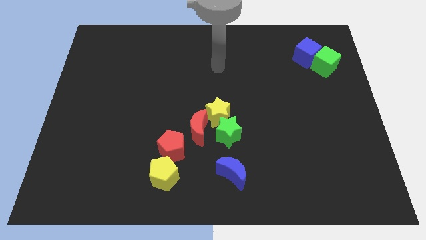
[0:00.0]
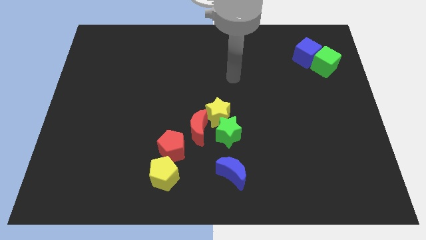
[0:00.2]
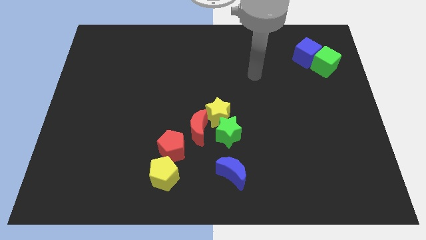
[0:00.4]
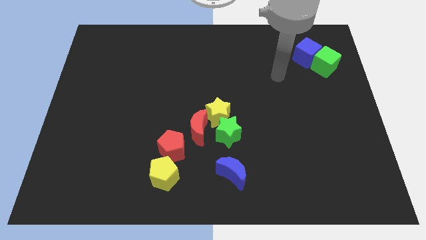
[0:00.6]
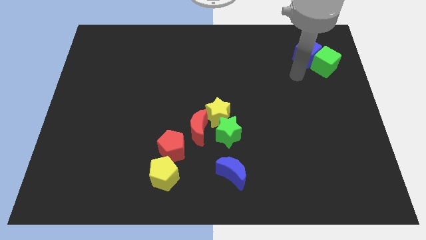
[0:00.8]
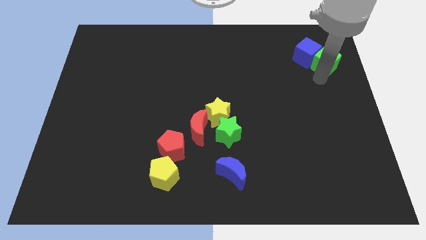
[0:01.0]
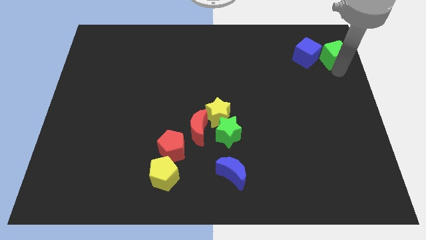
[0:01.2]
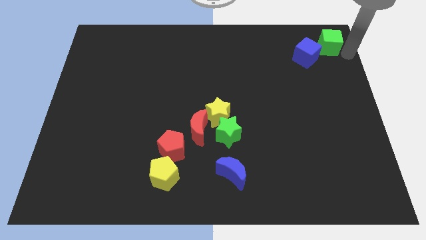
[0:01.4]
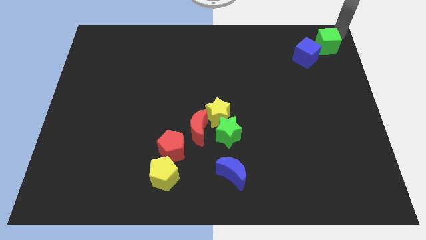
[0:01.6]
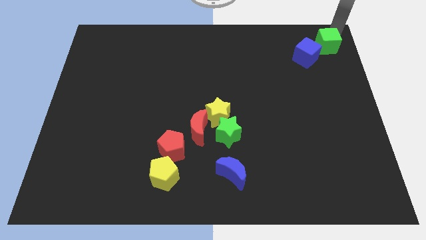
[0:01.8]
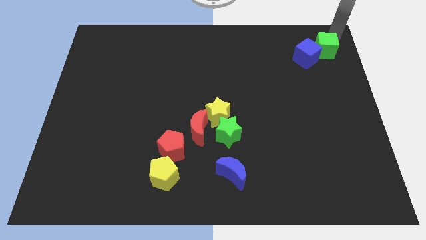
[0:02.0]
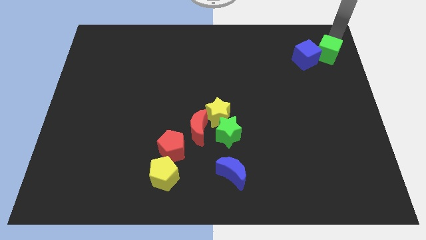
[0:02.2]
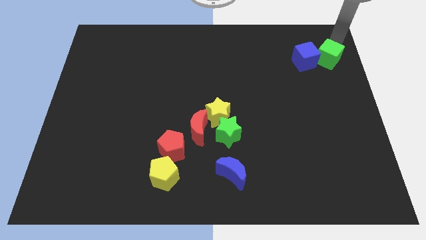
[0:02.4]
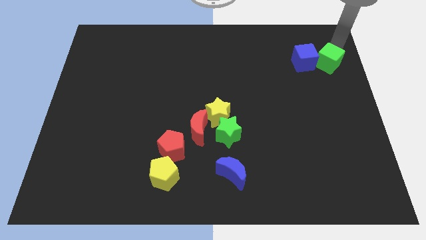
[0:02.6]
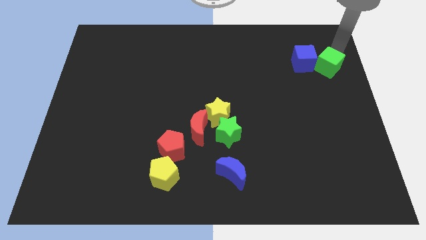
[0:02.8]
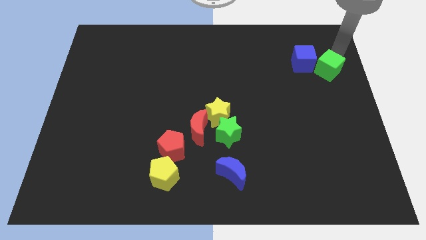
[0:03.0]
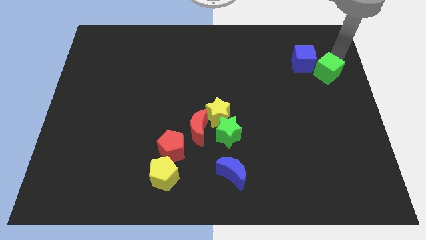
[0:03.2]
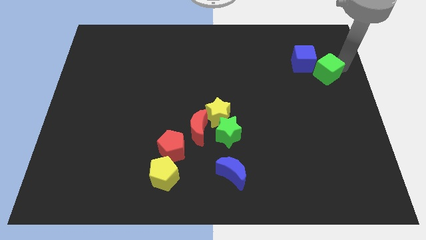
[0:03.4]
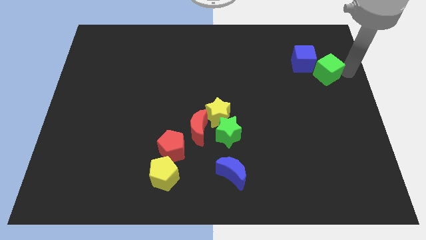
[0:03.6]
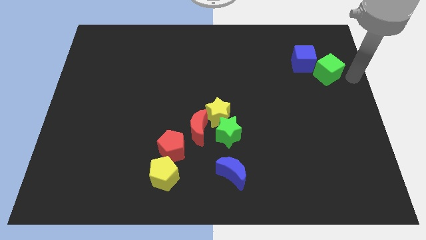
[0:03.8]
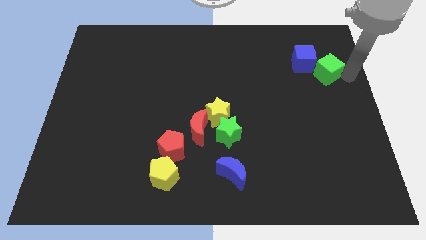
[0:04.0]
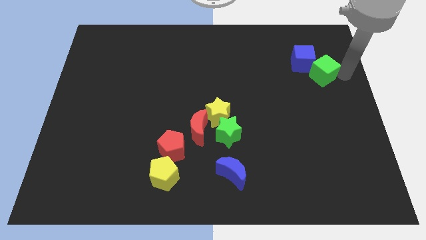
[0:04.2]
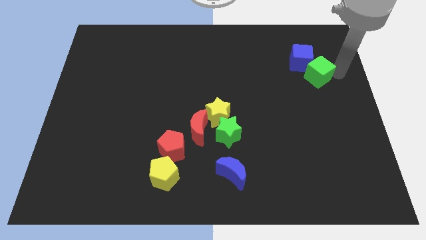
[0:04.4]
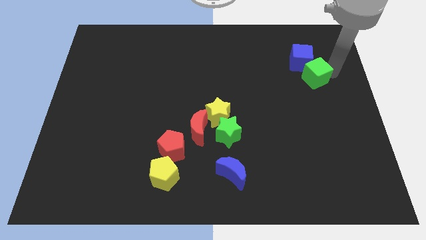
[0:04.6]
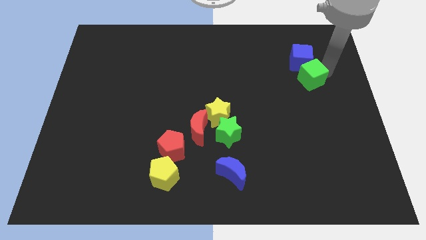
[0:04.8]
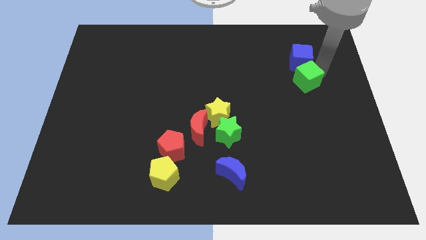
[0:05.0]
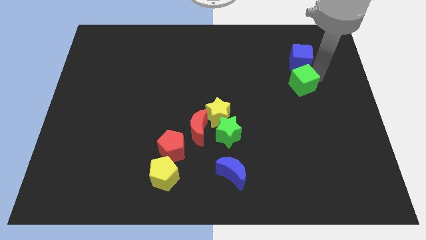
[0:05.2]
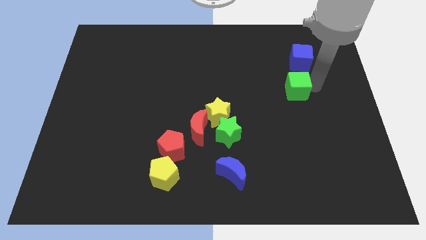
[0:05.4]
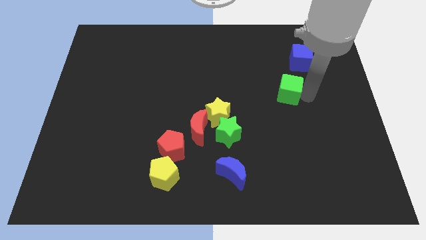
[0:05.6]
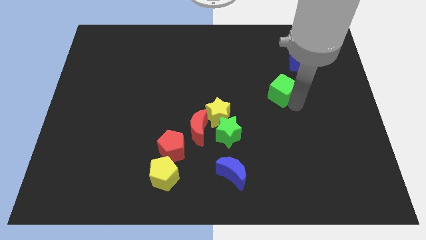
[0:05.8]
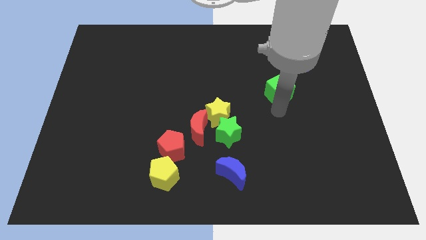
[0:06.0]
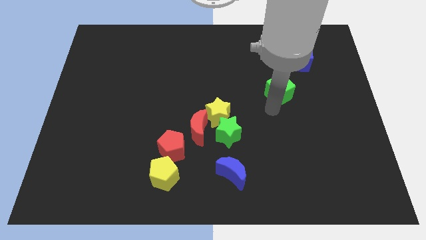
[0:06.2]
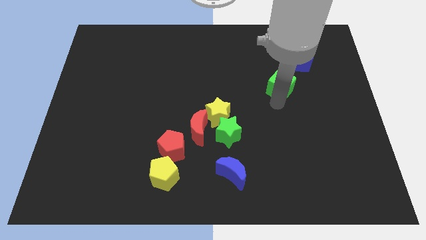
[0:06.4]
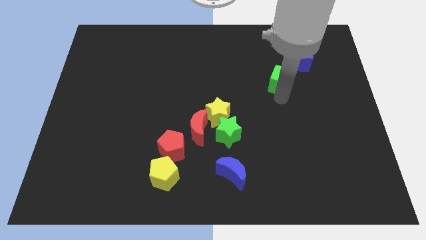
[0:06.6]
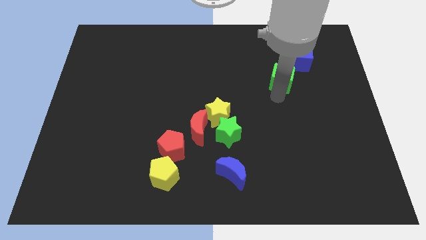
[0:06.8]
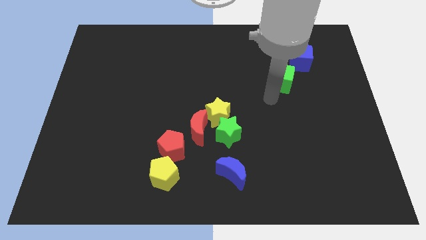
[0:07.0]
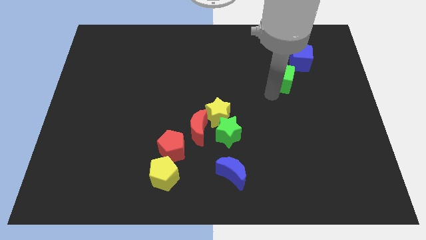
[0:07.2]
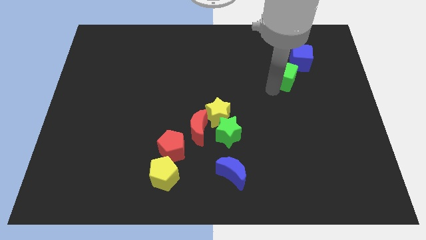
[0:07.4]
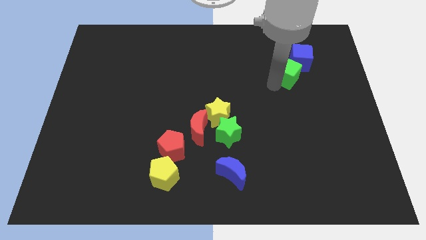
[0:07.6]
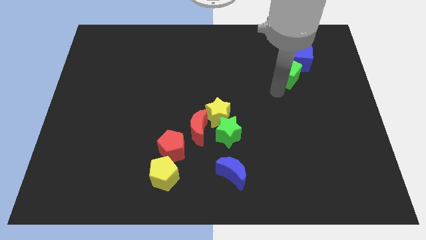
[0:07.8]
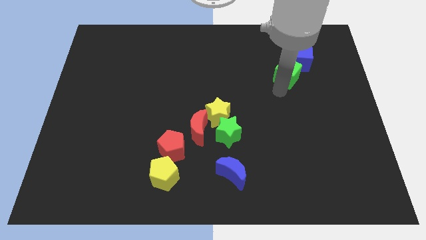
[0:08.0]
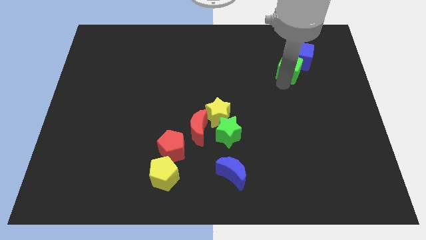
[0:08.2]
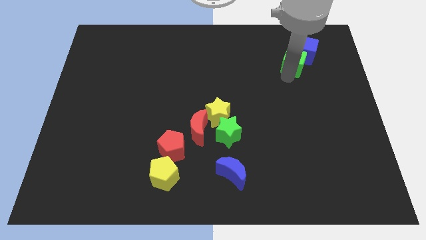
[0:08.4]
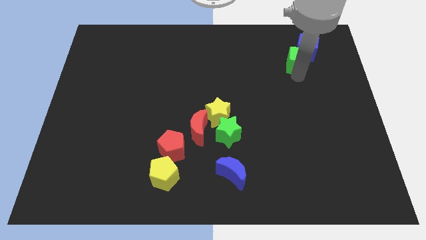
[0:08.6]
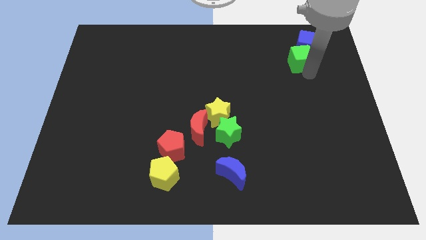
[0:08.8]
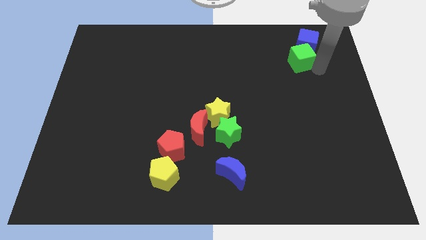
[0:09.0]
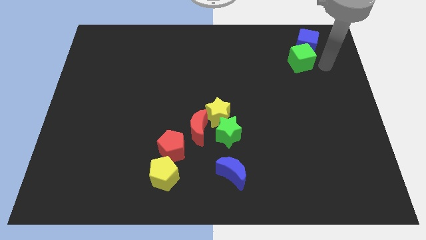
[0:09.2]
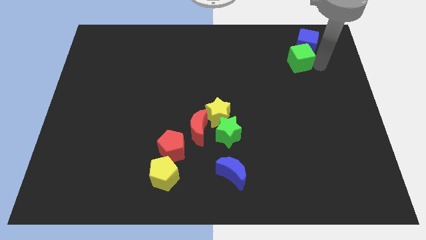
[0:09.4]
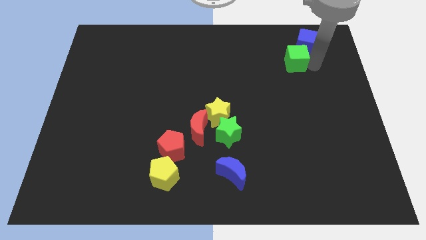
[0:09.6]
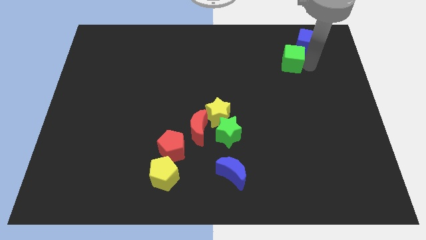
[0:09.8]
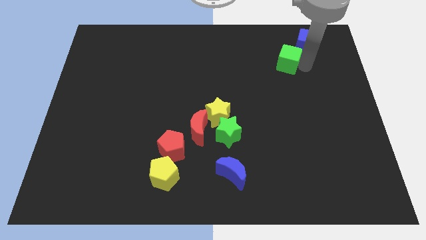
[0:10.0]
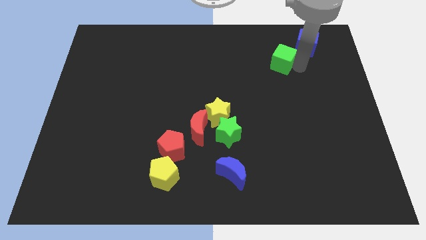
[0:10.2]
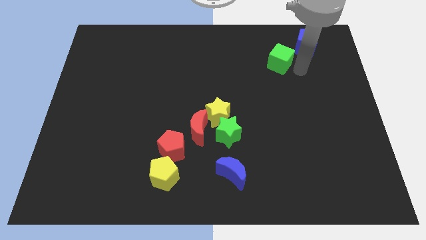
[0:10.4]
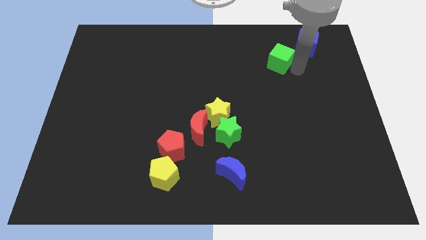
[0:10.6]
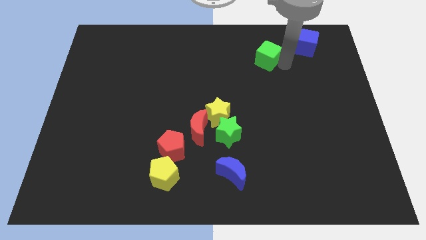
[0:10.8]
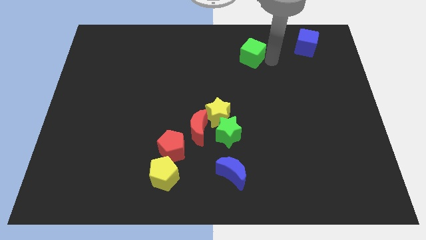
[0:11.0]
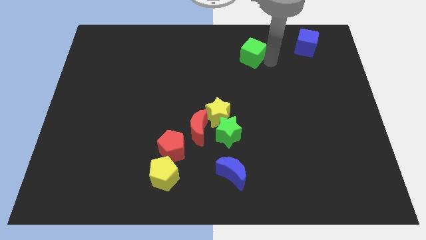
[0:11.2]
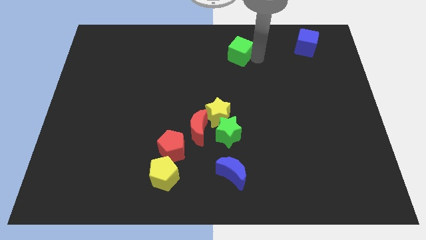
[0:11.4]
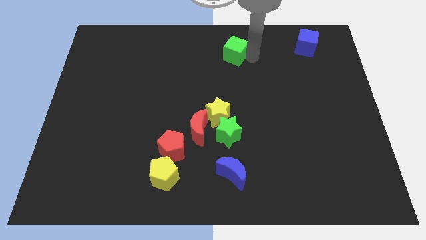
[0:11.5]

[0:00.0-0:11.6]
push the green cube to the towards your base

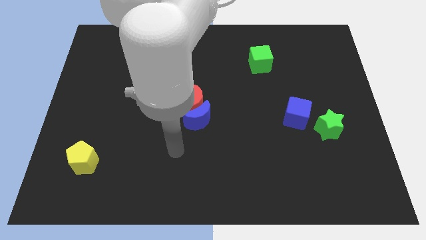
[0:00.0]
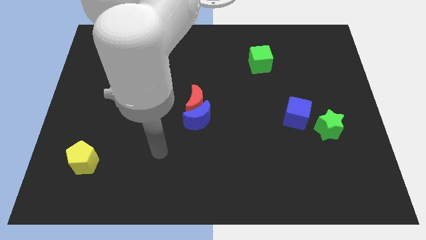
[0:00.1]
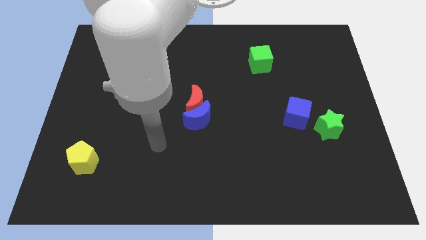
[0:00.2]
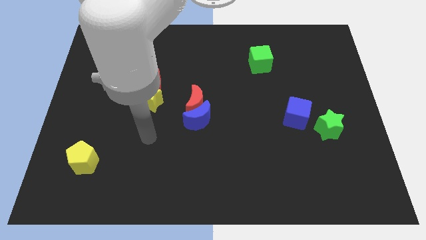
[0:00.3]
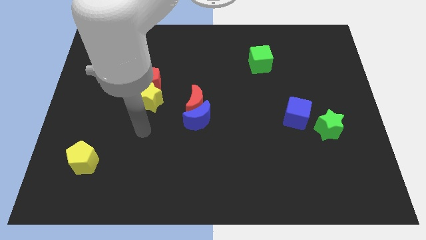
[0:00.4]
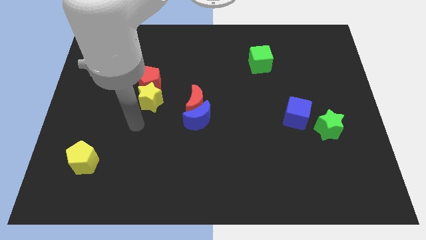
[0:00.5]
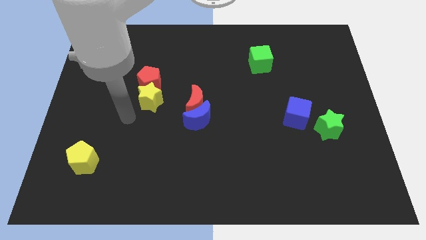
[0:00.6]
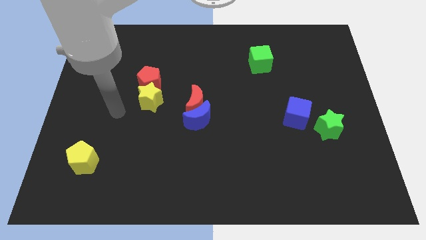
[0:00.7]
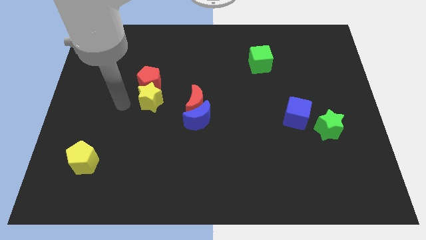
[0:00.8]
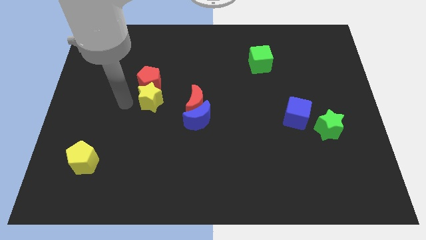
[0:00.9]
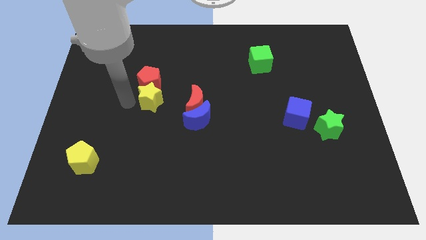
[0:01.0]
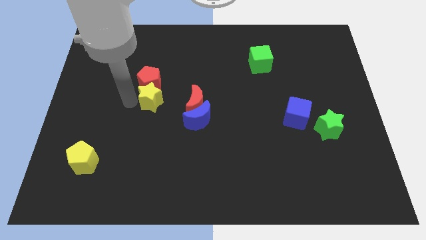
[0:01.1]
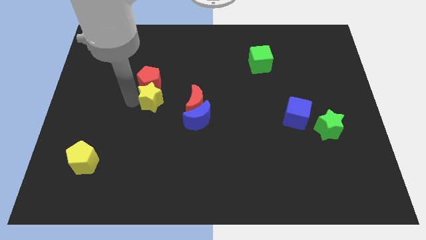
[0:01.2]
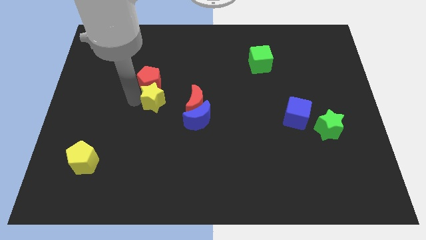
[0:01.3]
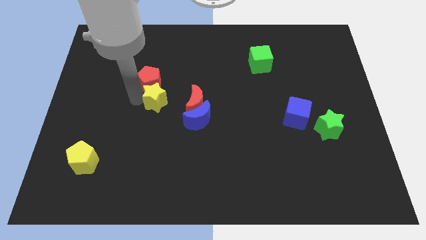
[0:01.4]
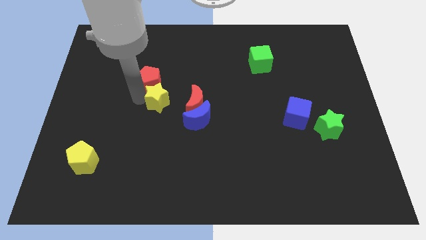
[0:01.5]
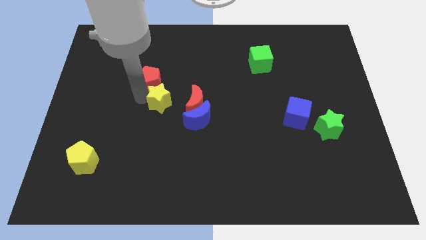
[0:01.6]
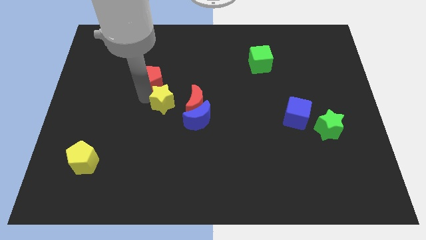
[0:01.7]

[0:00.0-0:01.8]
put the yellow star to the center of the board
